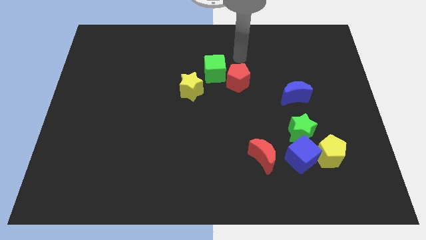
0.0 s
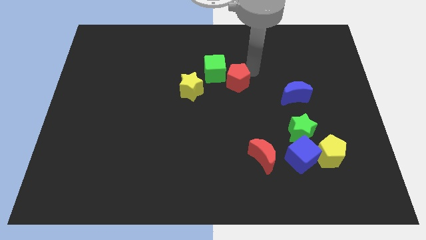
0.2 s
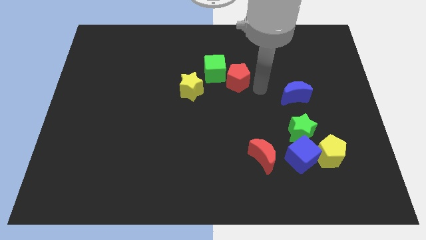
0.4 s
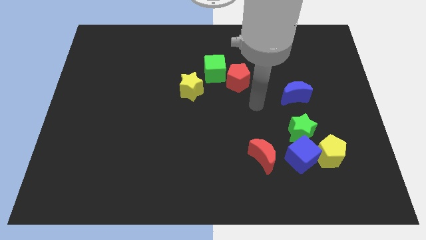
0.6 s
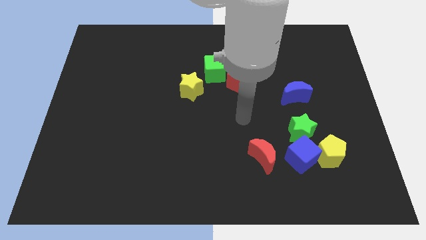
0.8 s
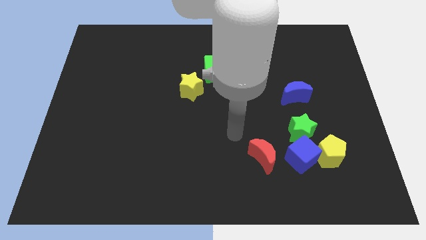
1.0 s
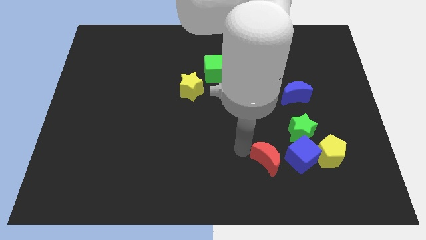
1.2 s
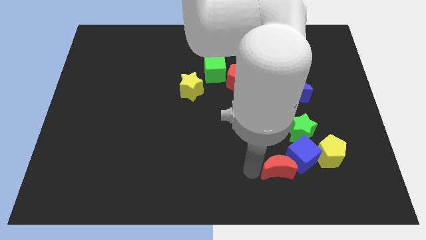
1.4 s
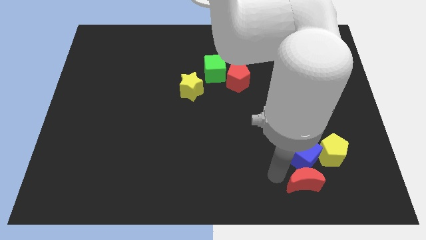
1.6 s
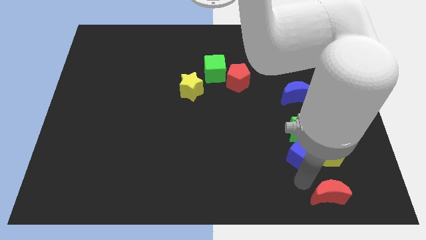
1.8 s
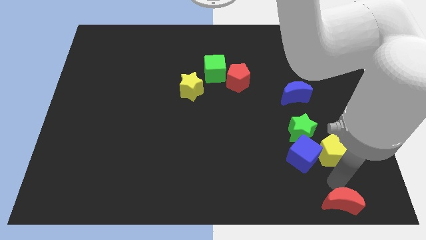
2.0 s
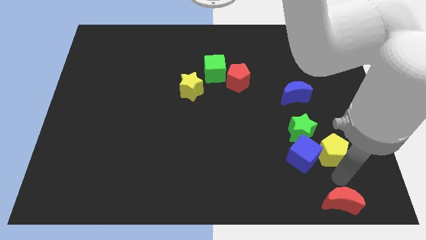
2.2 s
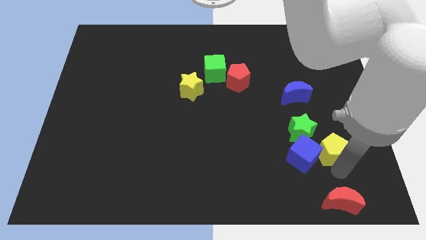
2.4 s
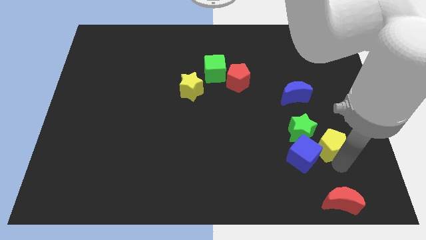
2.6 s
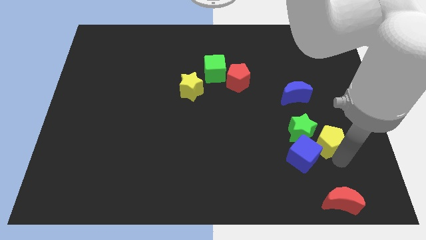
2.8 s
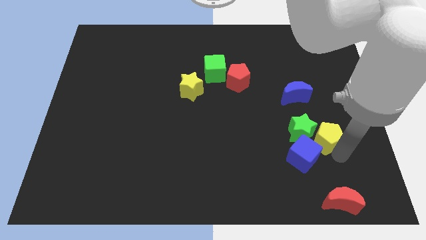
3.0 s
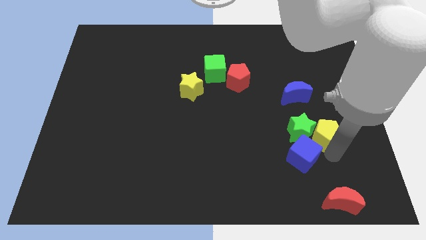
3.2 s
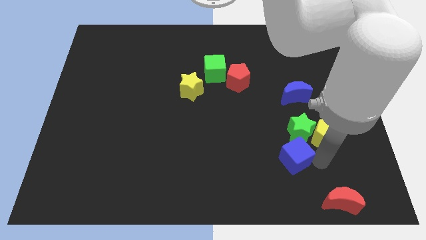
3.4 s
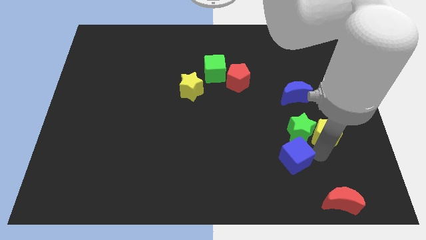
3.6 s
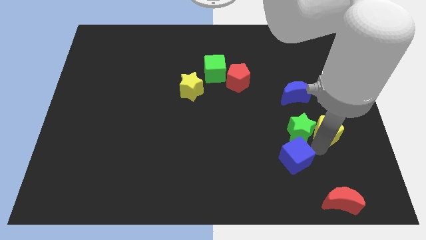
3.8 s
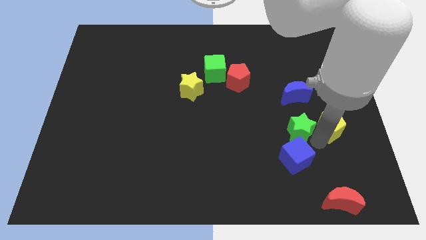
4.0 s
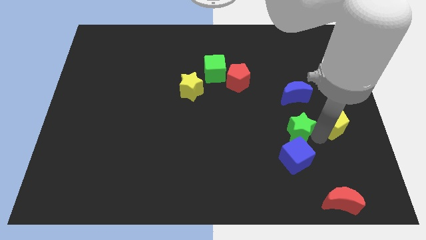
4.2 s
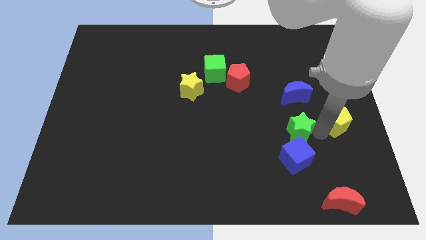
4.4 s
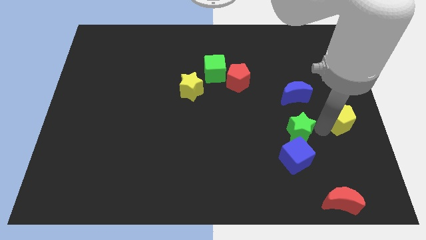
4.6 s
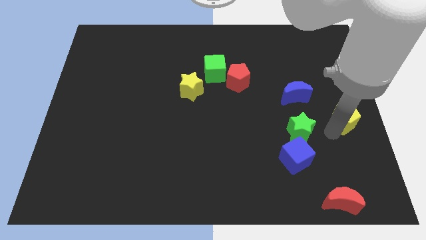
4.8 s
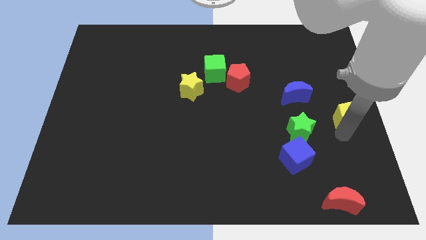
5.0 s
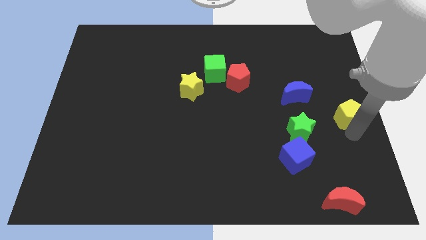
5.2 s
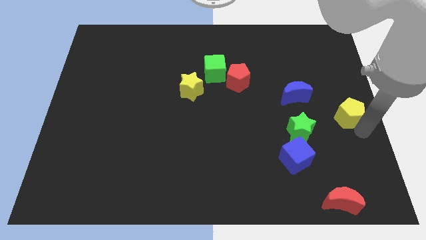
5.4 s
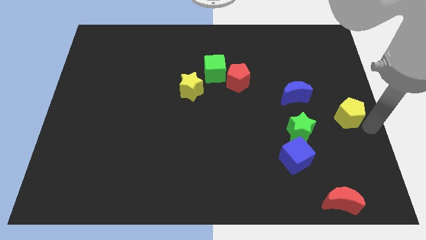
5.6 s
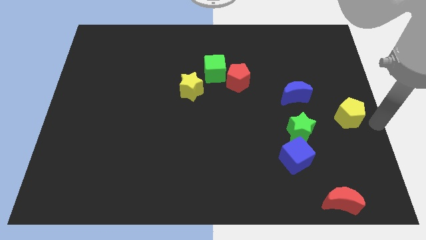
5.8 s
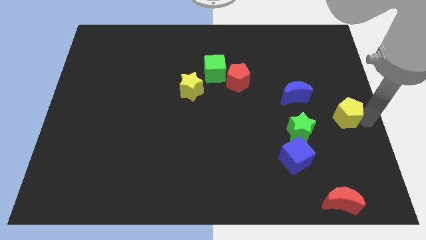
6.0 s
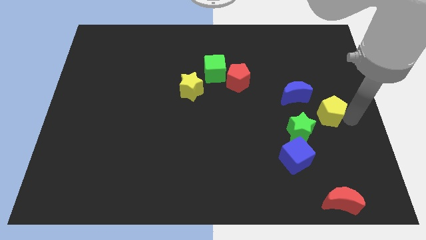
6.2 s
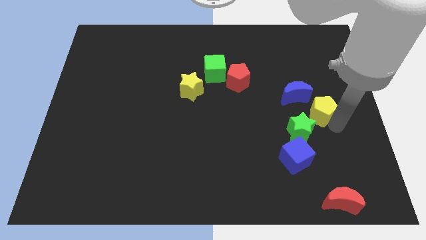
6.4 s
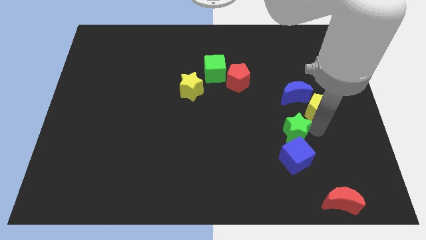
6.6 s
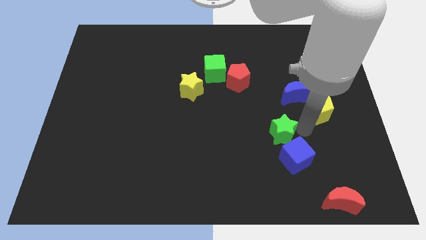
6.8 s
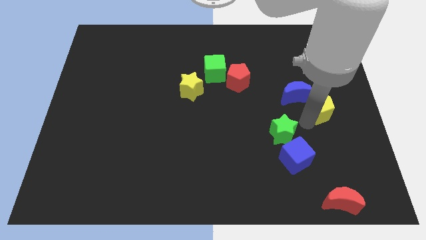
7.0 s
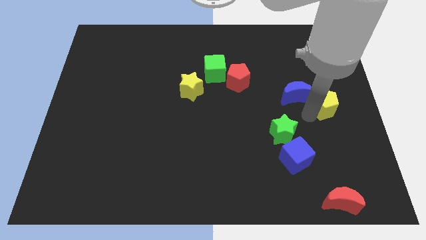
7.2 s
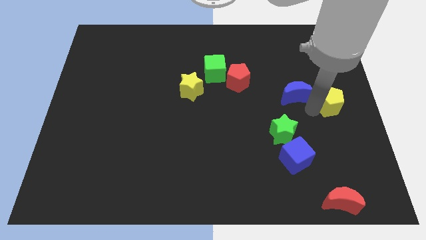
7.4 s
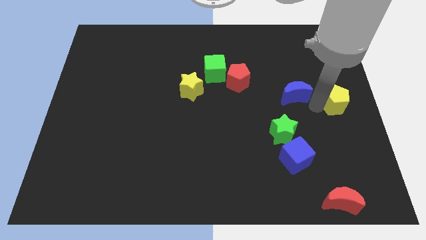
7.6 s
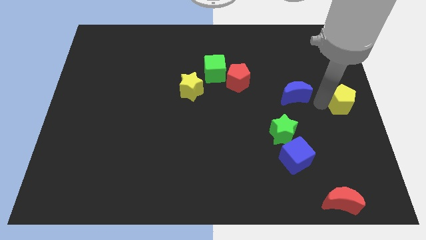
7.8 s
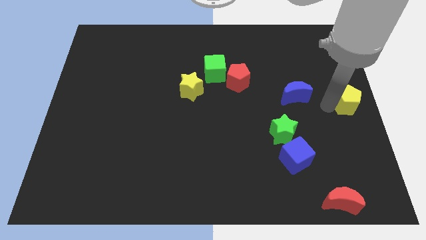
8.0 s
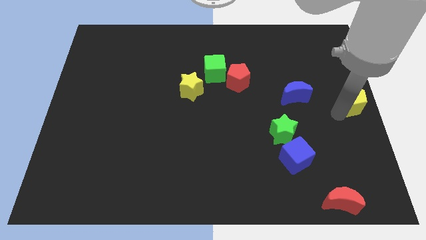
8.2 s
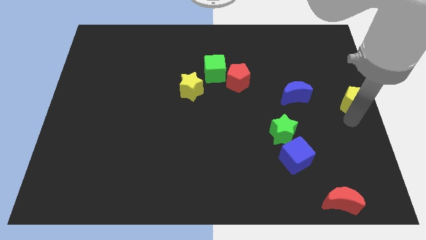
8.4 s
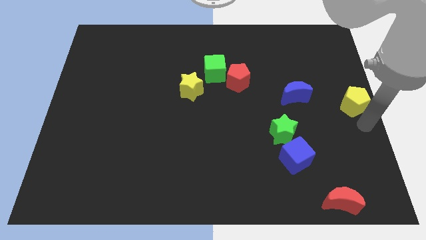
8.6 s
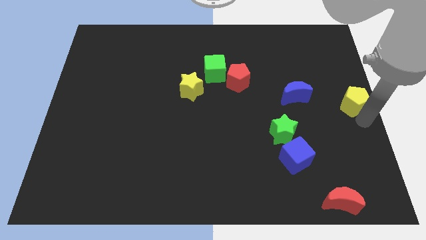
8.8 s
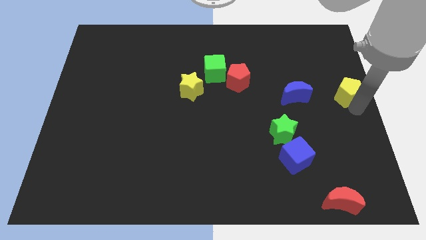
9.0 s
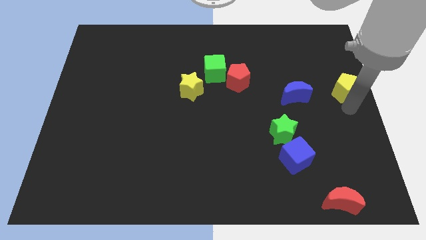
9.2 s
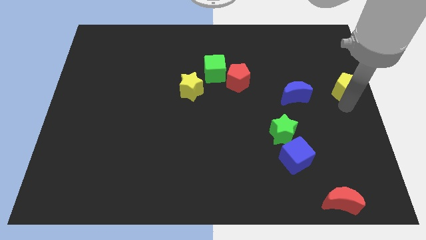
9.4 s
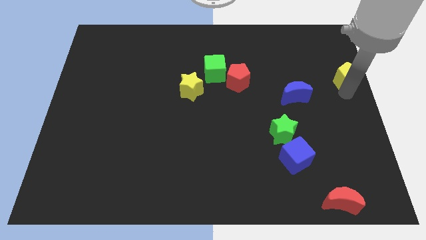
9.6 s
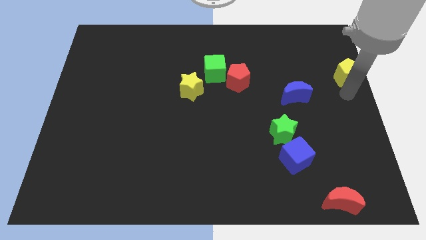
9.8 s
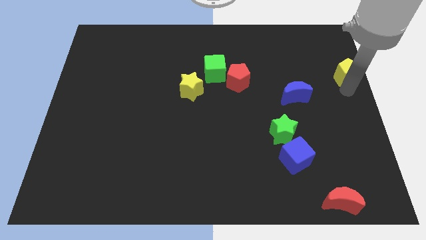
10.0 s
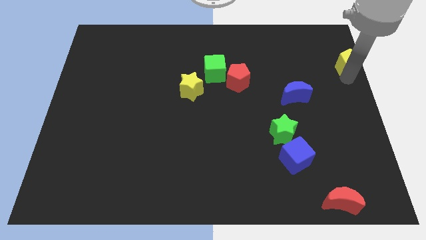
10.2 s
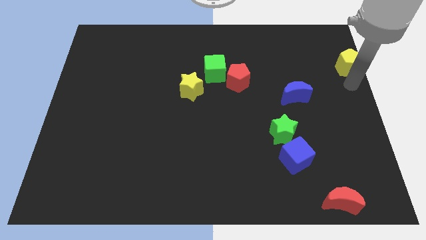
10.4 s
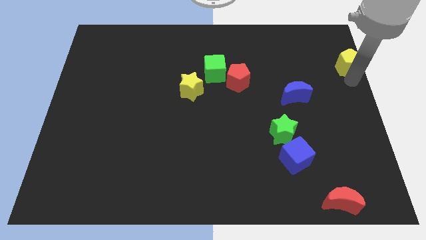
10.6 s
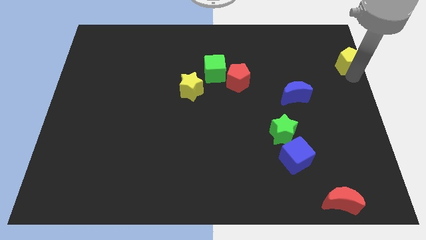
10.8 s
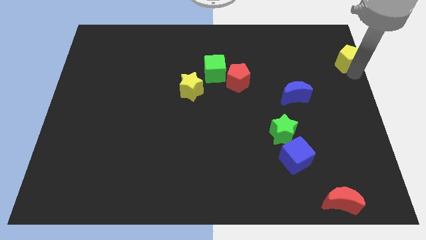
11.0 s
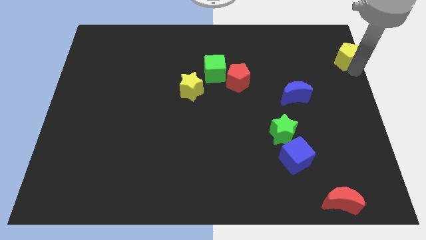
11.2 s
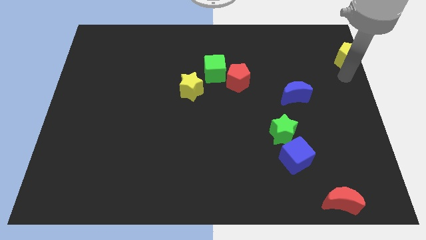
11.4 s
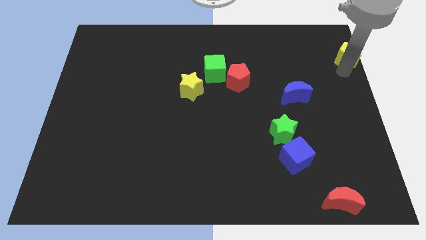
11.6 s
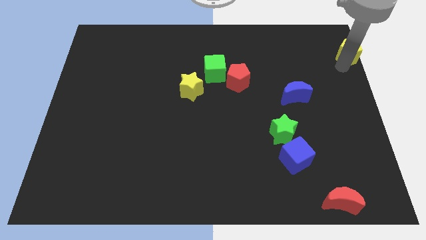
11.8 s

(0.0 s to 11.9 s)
move the yellow pentagon to the top right corner

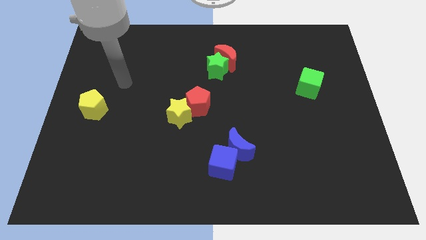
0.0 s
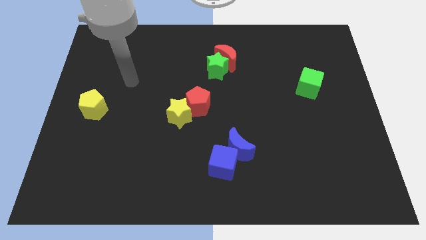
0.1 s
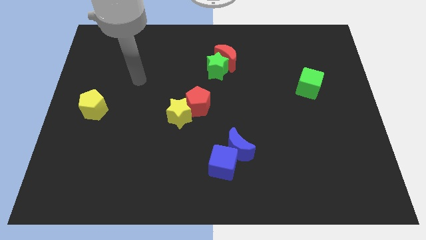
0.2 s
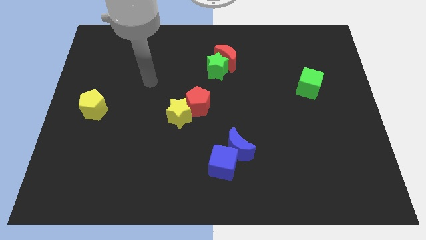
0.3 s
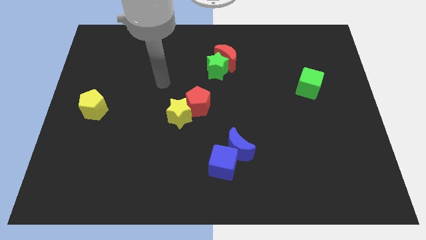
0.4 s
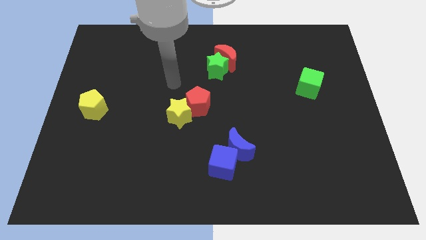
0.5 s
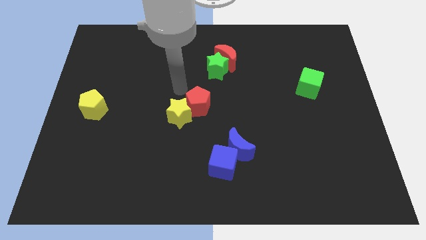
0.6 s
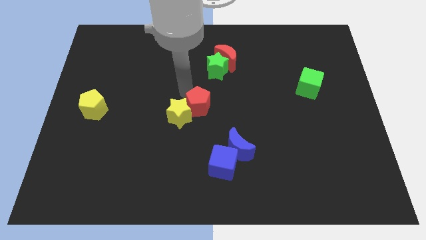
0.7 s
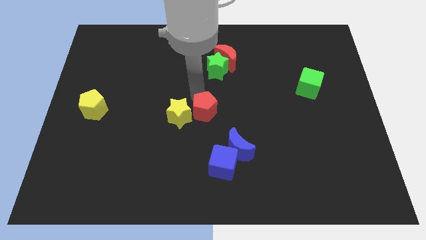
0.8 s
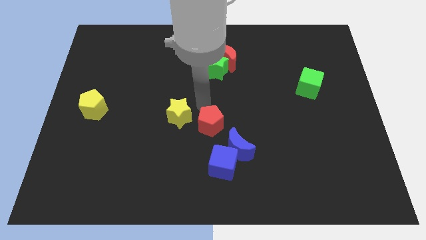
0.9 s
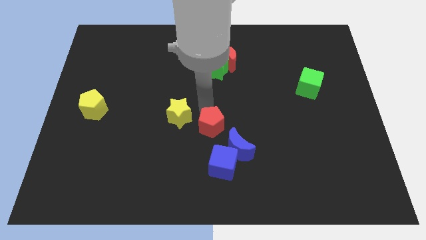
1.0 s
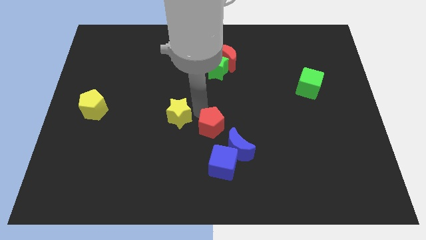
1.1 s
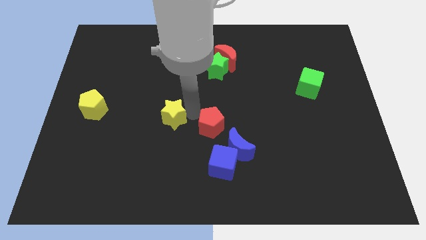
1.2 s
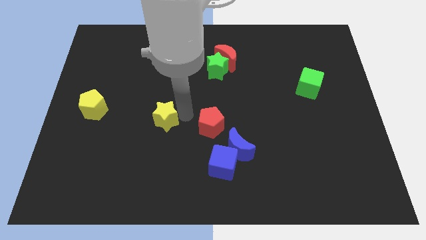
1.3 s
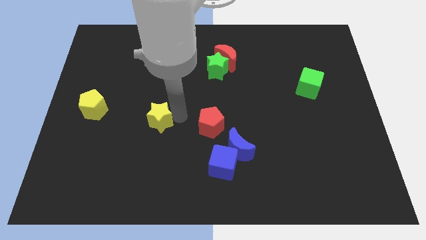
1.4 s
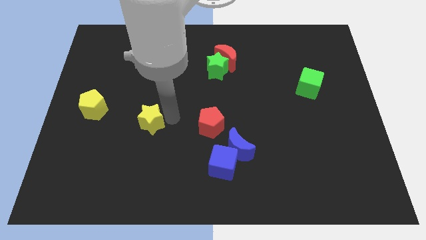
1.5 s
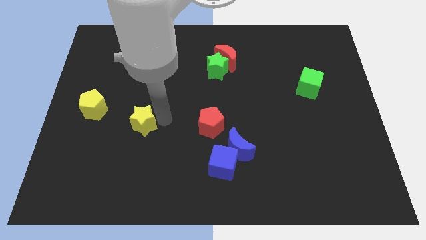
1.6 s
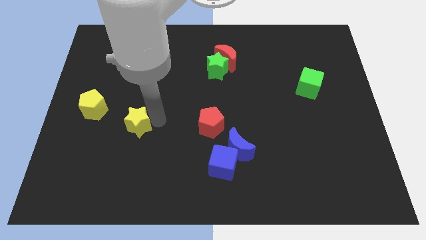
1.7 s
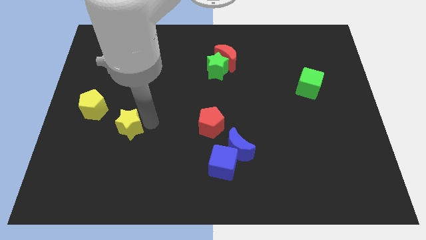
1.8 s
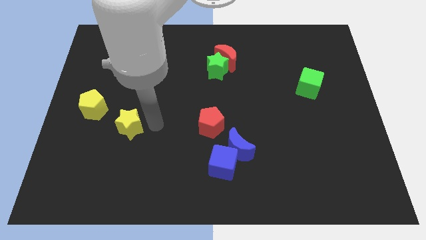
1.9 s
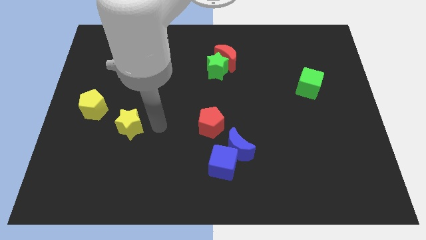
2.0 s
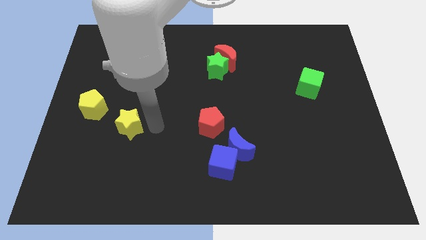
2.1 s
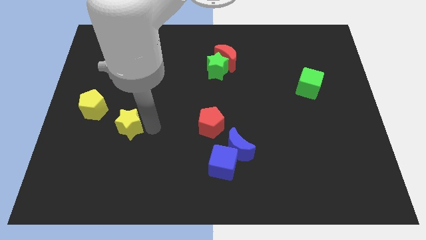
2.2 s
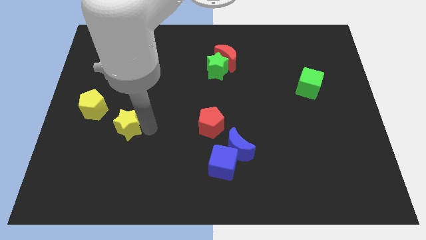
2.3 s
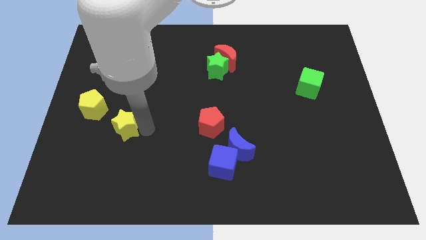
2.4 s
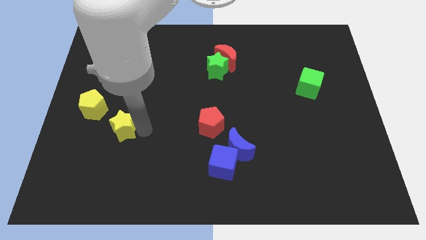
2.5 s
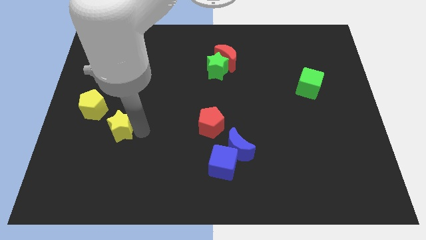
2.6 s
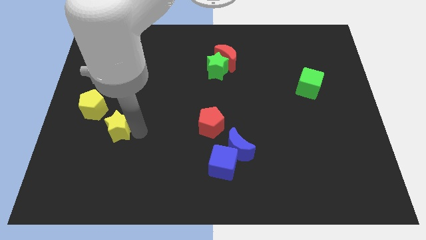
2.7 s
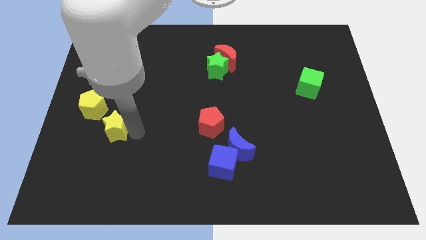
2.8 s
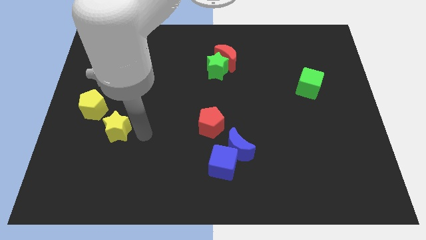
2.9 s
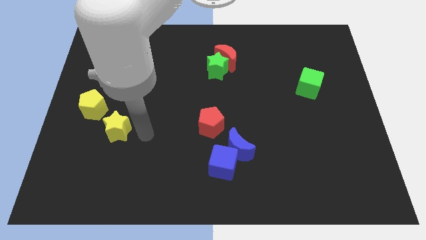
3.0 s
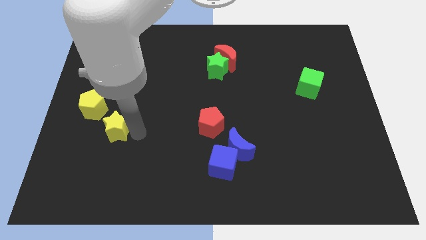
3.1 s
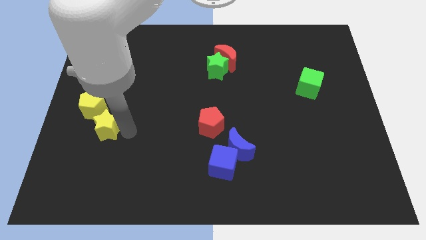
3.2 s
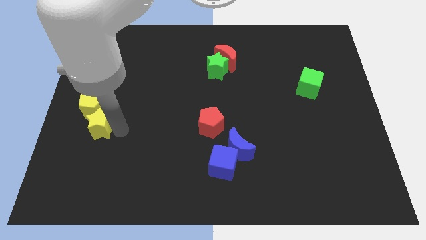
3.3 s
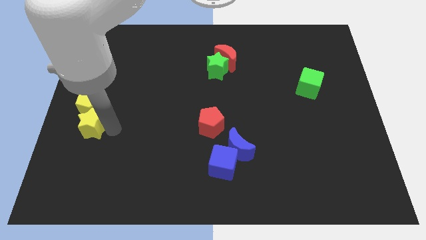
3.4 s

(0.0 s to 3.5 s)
put the yellow star to the center left
